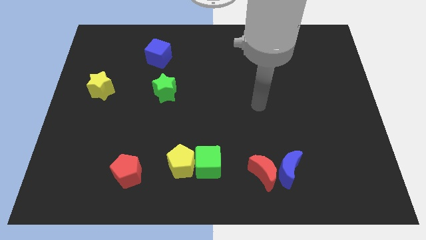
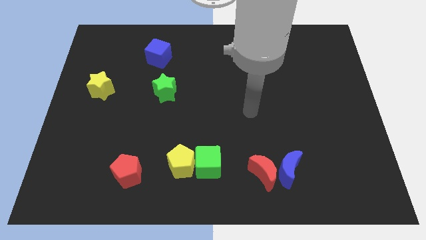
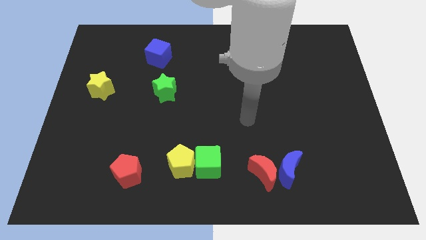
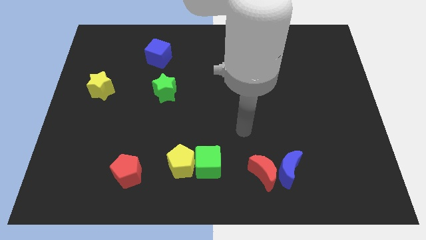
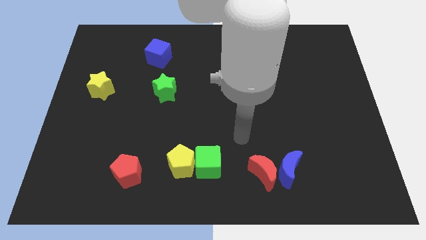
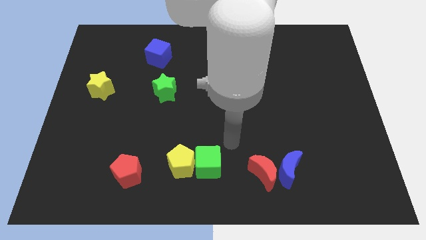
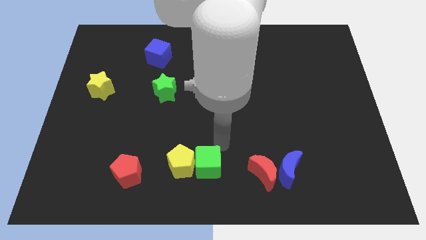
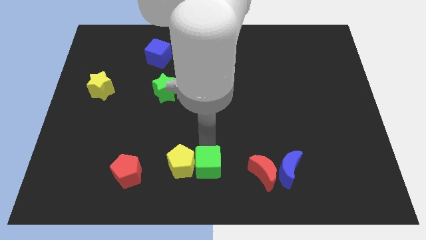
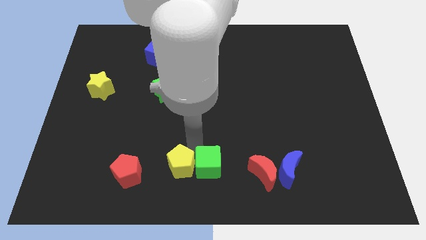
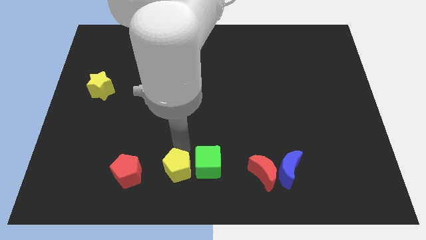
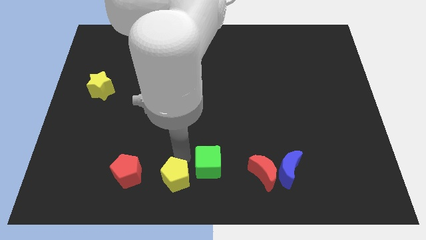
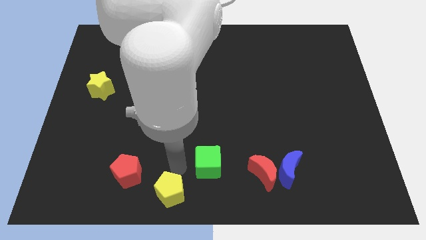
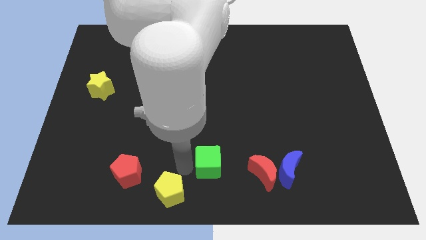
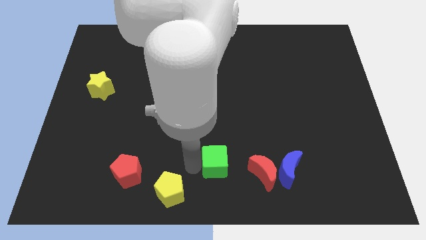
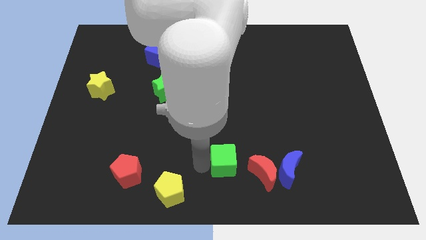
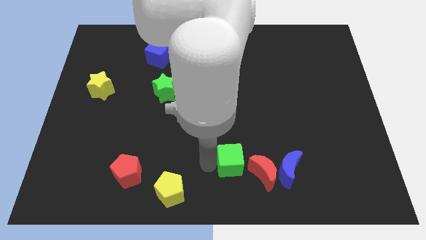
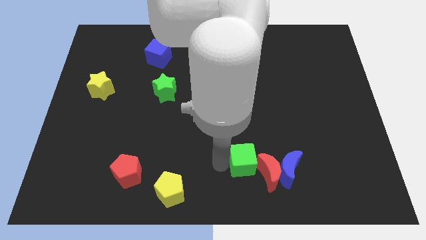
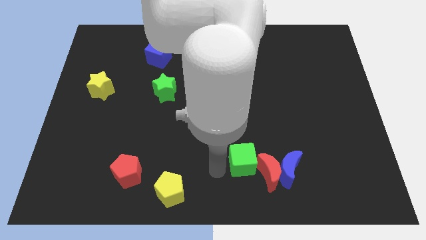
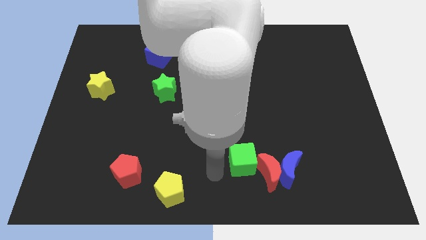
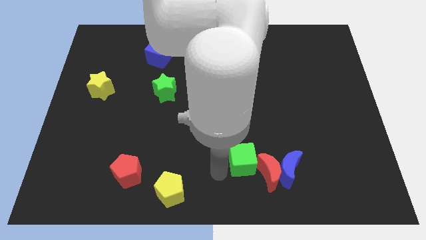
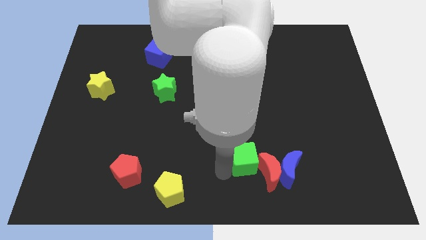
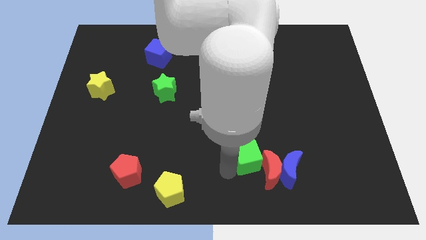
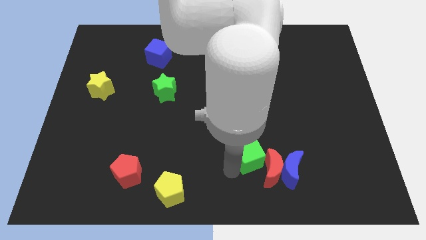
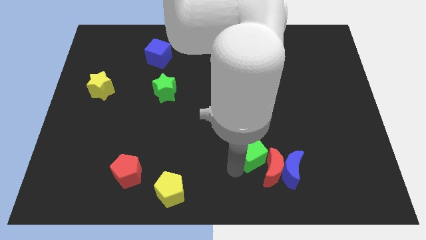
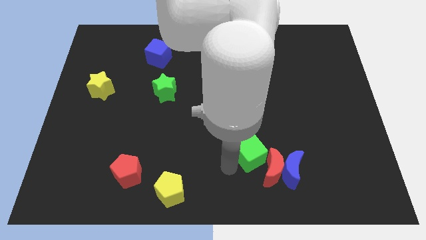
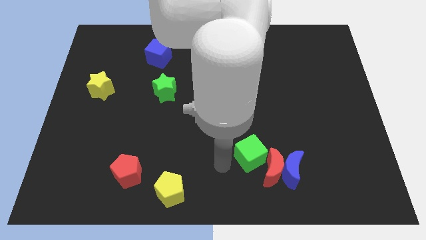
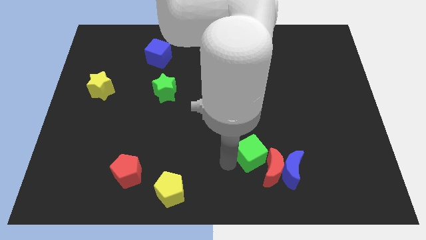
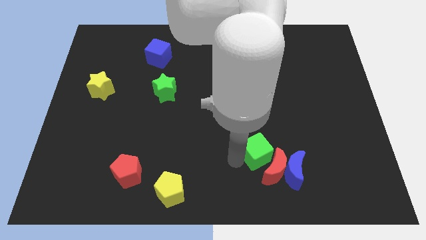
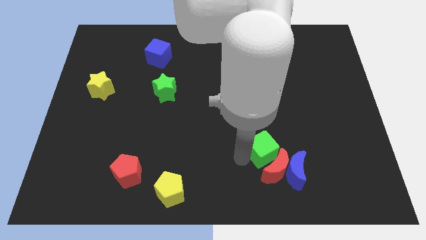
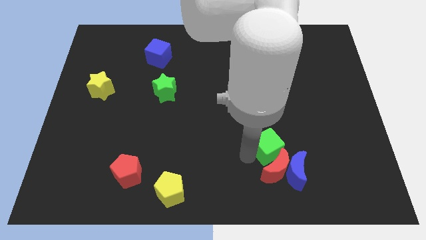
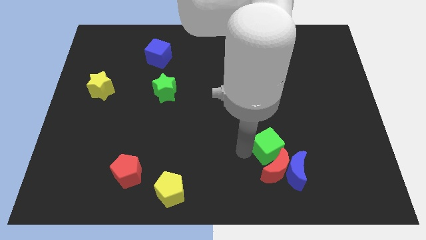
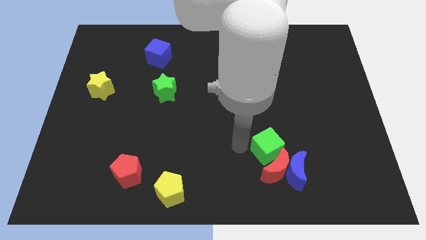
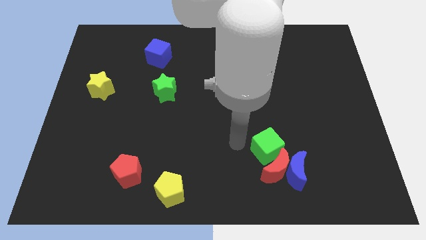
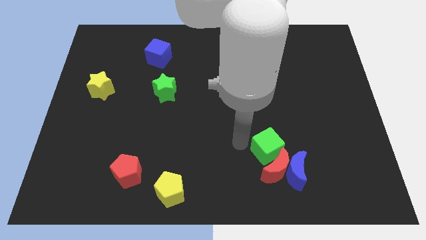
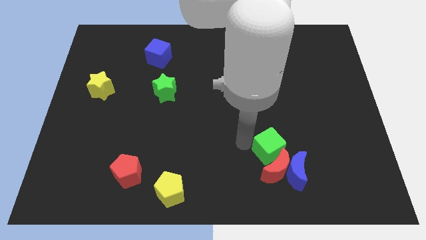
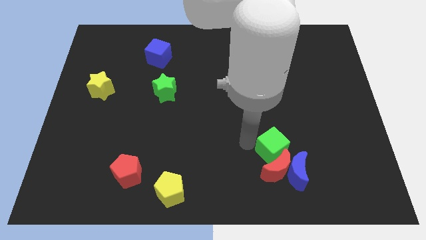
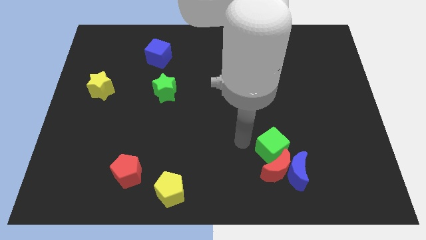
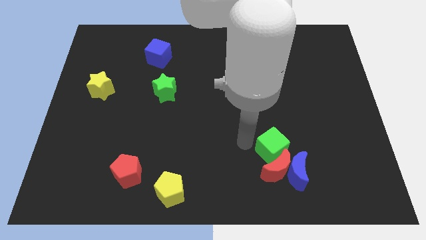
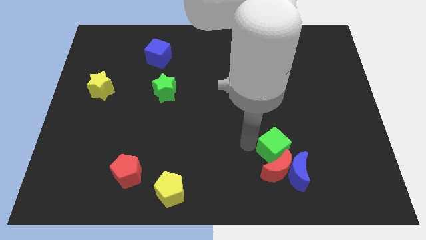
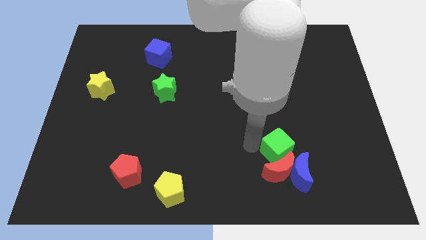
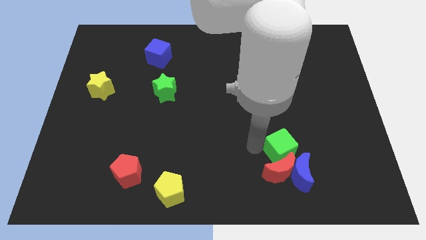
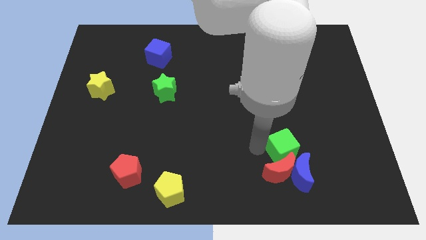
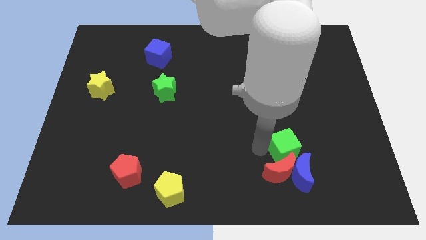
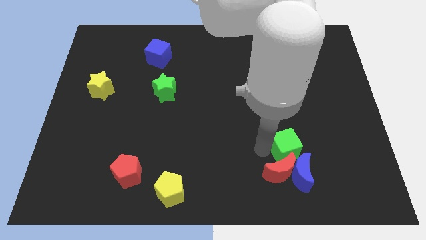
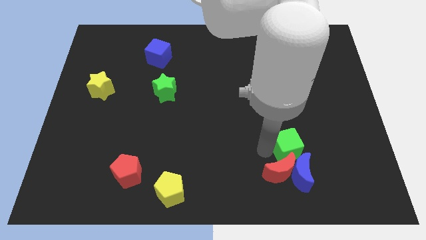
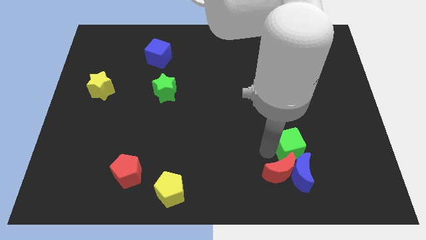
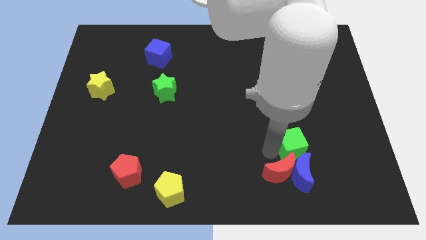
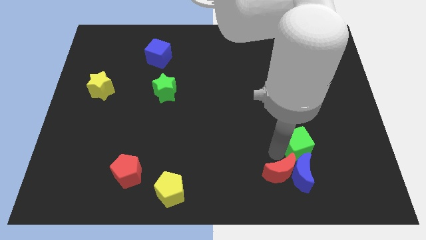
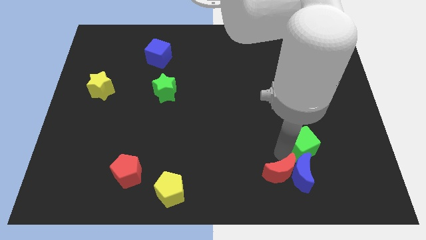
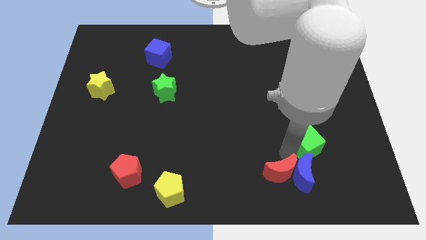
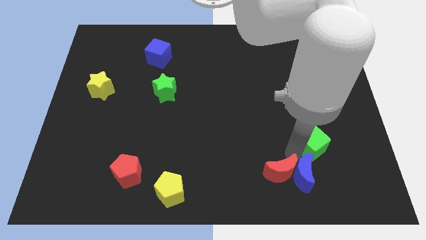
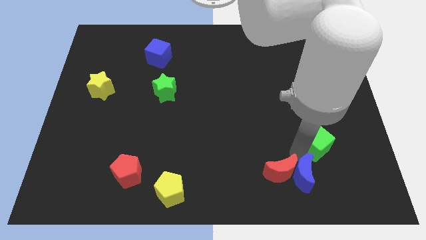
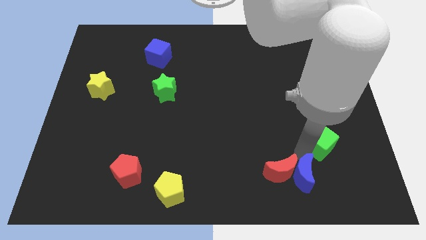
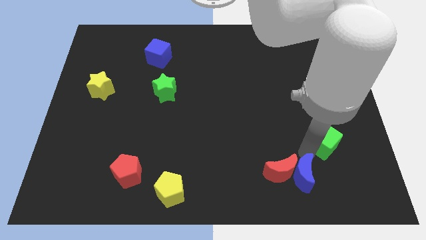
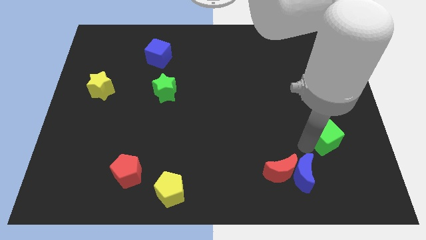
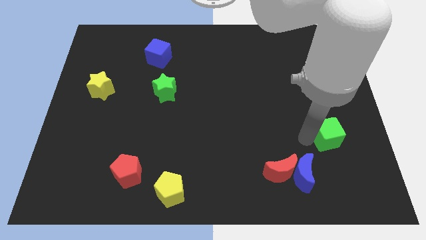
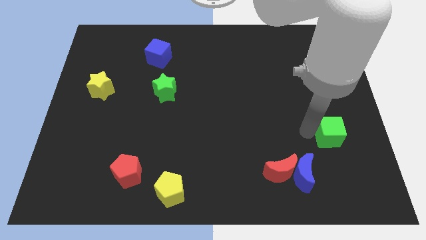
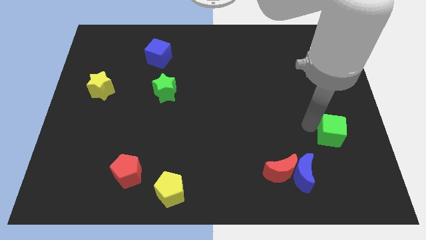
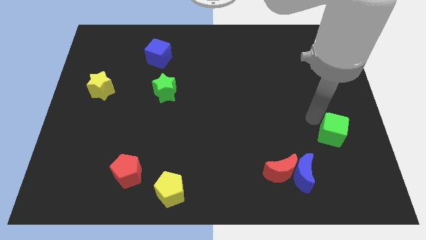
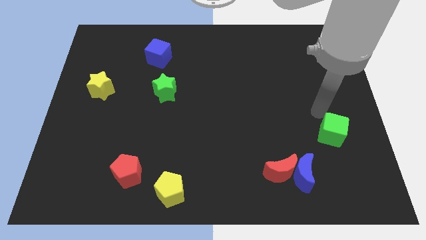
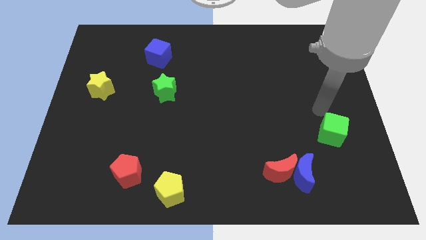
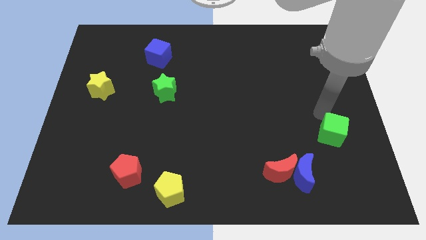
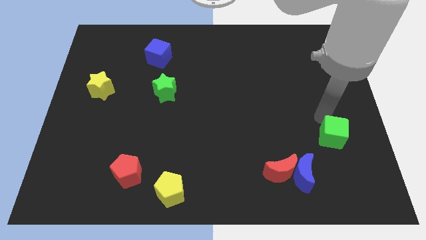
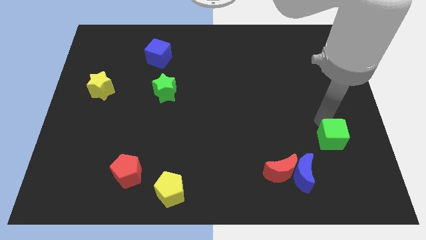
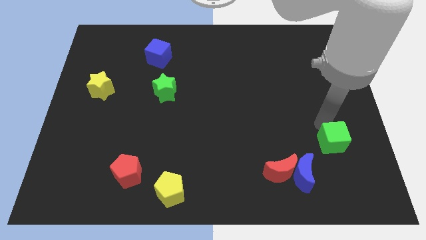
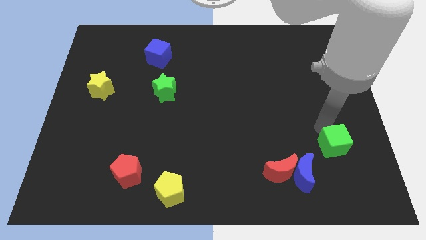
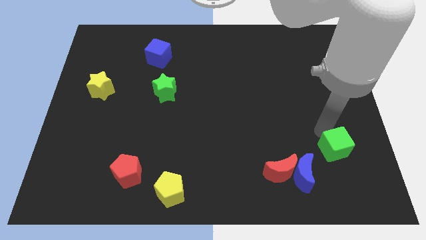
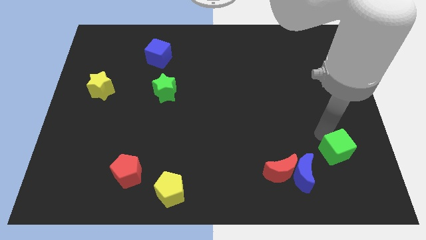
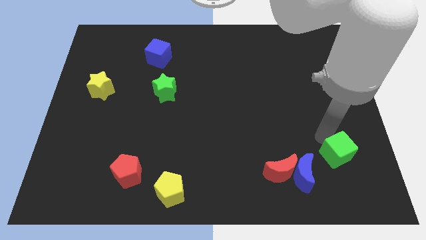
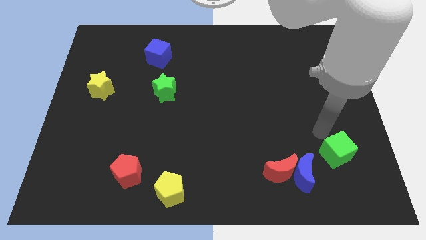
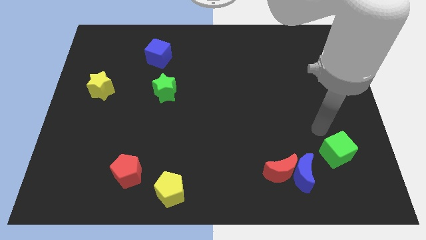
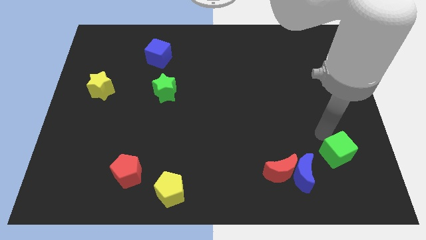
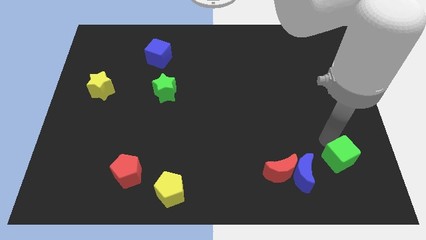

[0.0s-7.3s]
put the green cube to the right of the blue moon
